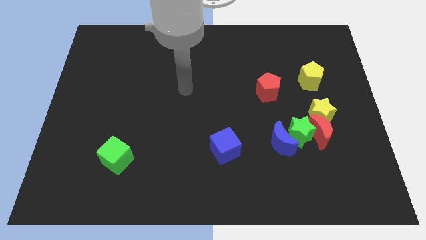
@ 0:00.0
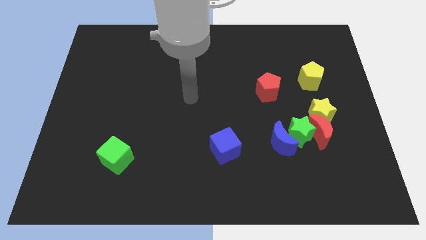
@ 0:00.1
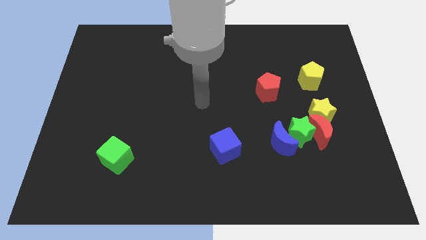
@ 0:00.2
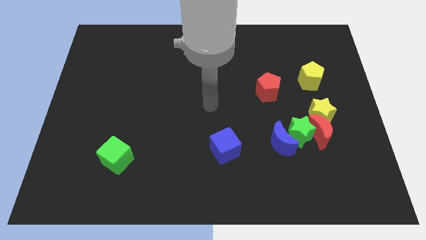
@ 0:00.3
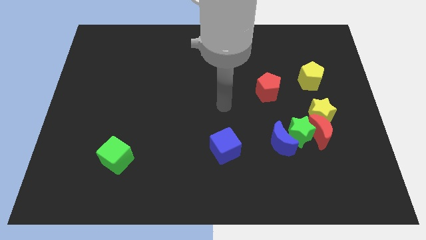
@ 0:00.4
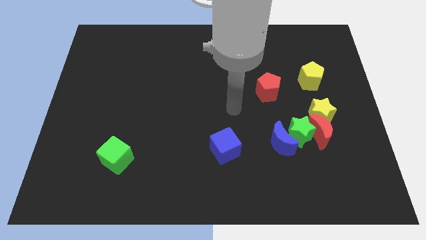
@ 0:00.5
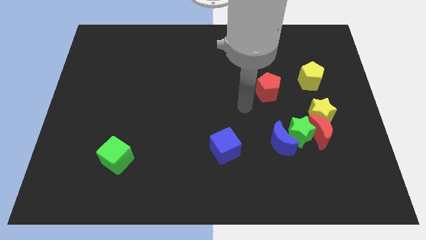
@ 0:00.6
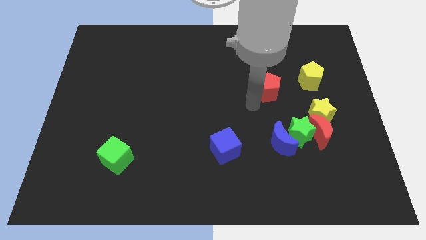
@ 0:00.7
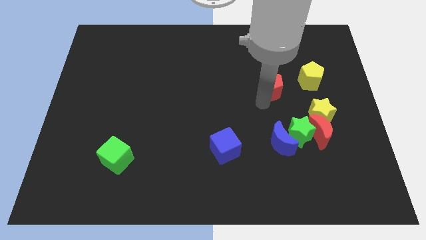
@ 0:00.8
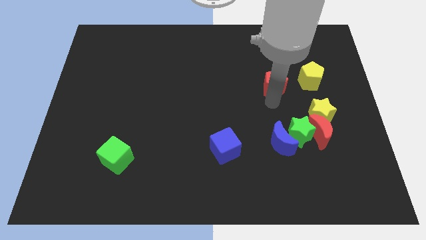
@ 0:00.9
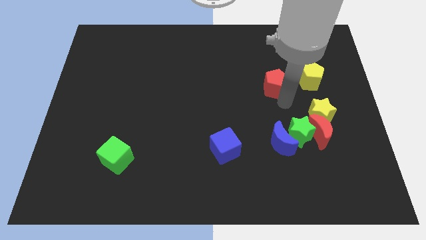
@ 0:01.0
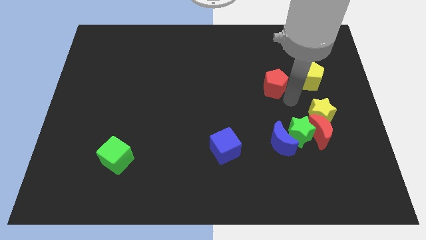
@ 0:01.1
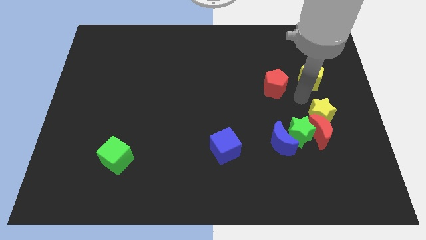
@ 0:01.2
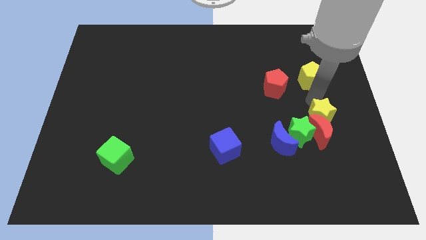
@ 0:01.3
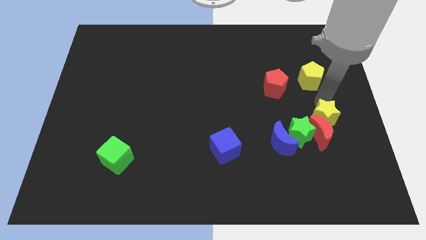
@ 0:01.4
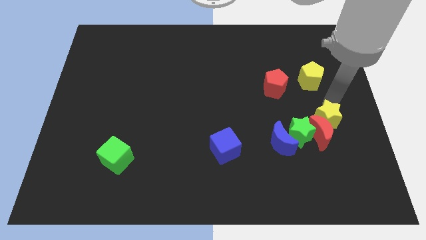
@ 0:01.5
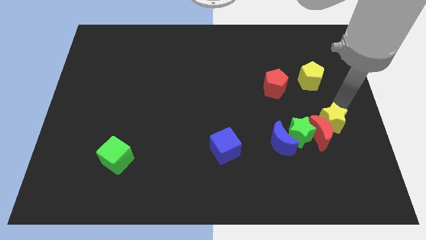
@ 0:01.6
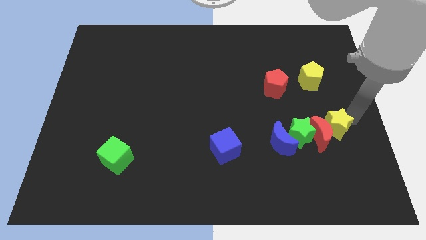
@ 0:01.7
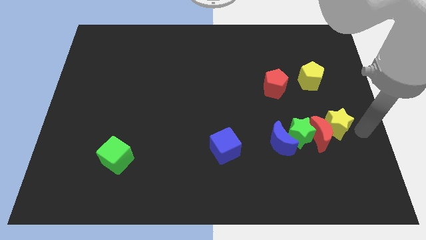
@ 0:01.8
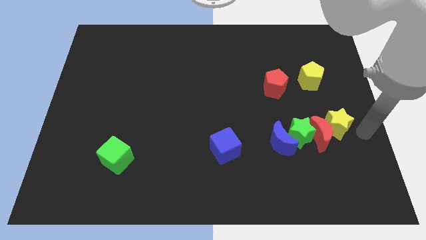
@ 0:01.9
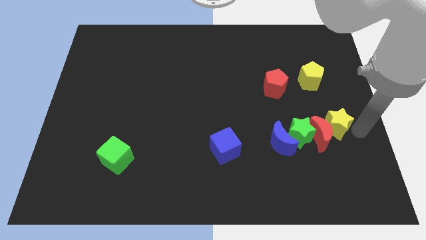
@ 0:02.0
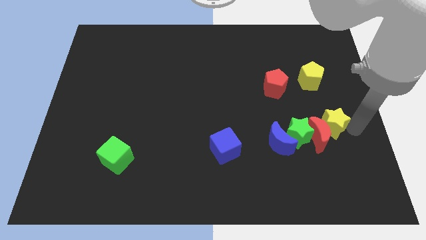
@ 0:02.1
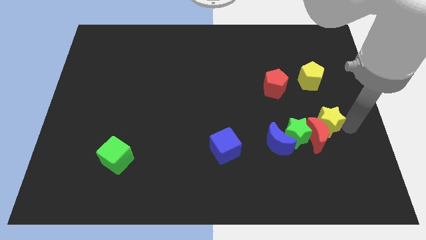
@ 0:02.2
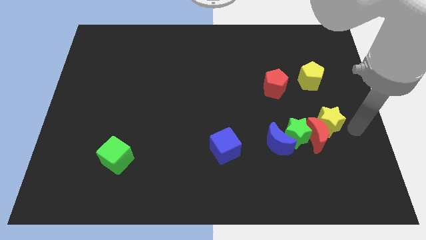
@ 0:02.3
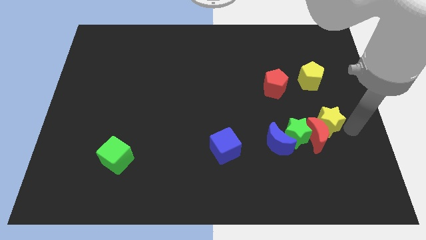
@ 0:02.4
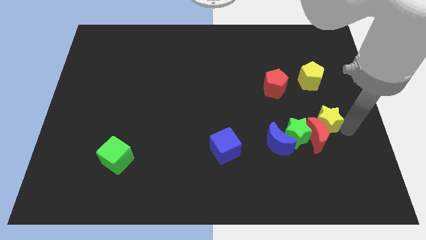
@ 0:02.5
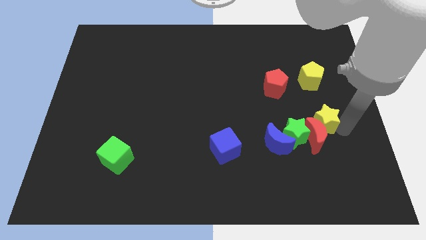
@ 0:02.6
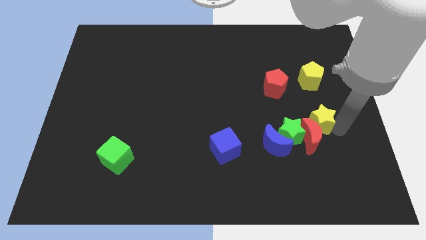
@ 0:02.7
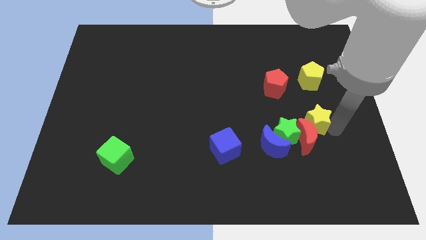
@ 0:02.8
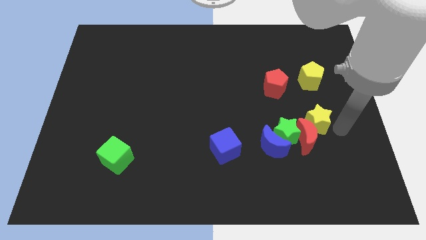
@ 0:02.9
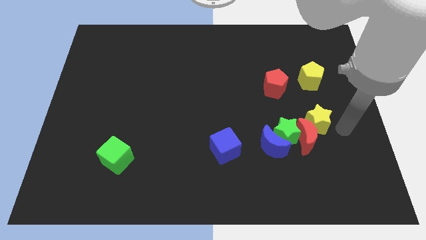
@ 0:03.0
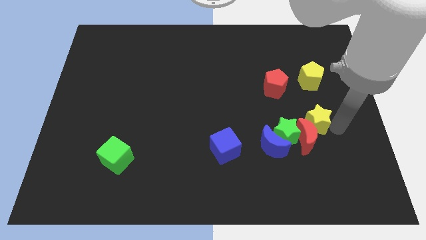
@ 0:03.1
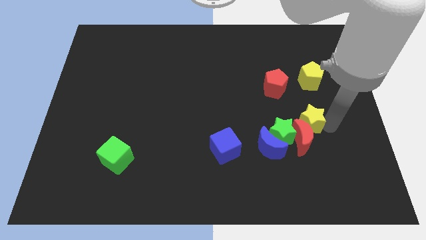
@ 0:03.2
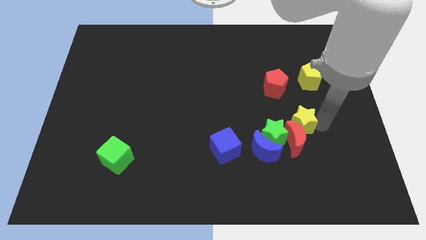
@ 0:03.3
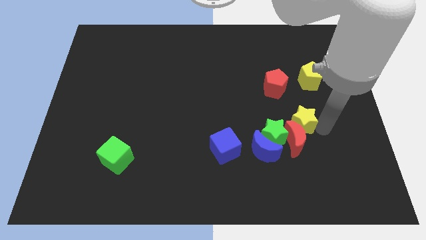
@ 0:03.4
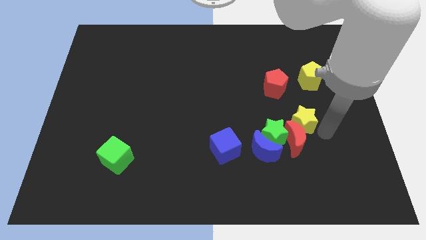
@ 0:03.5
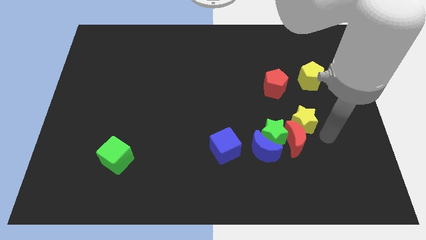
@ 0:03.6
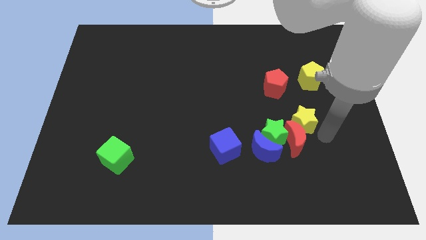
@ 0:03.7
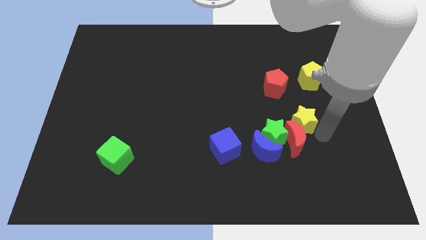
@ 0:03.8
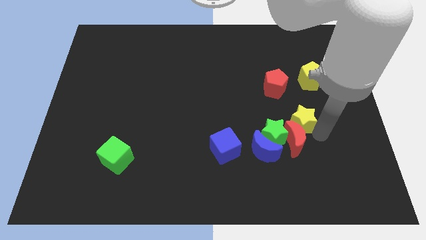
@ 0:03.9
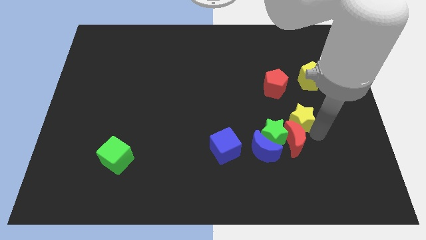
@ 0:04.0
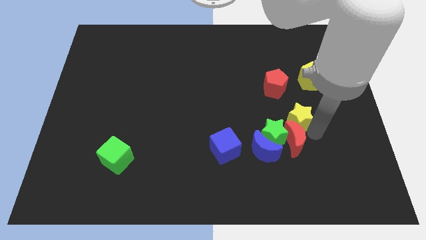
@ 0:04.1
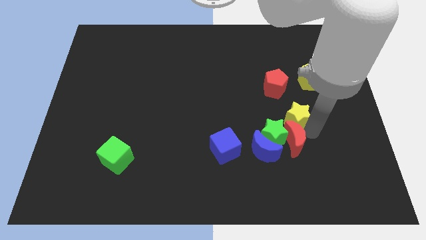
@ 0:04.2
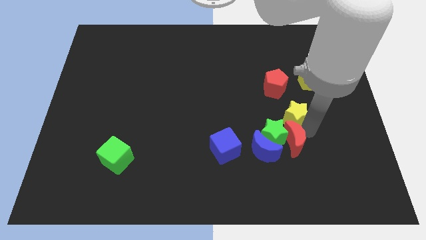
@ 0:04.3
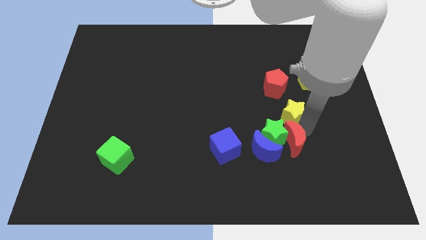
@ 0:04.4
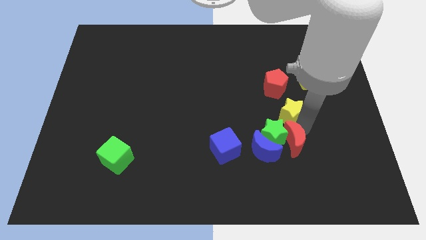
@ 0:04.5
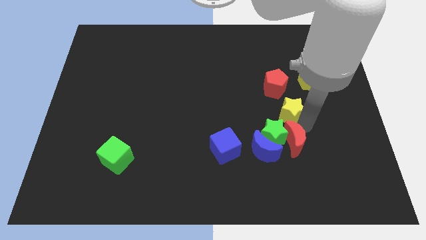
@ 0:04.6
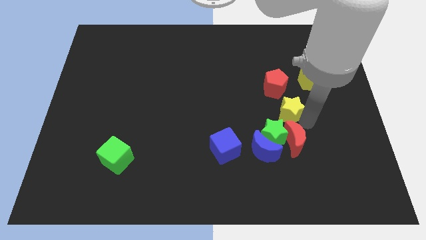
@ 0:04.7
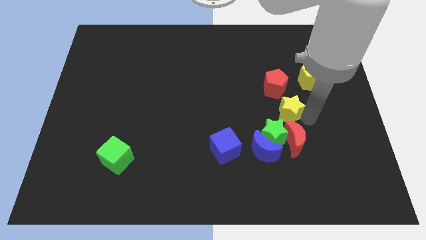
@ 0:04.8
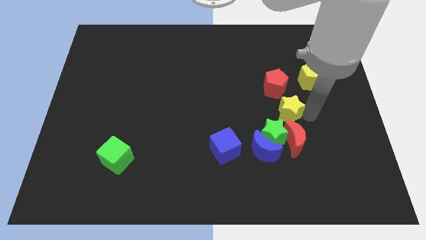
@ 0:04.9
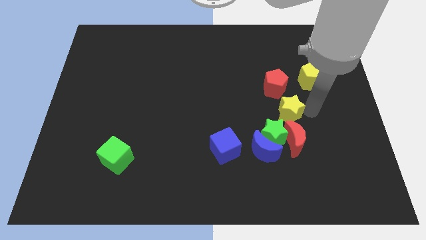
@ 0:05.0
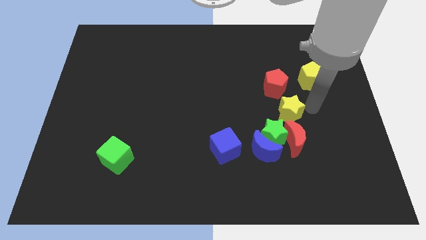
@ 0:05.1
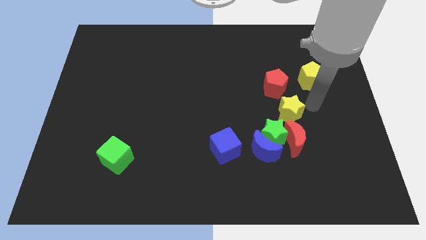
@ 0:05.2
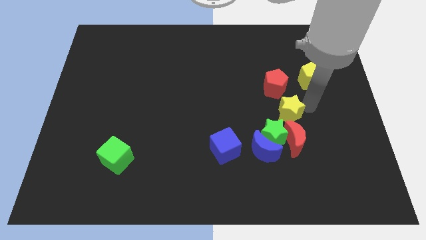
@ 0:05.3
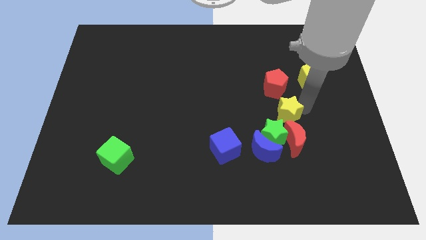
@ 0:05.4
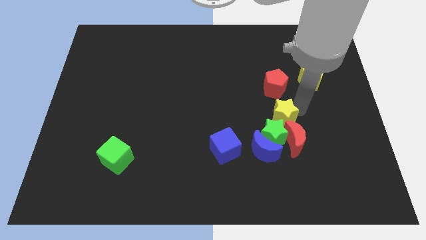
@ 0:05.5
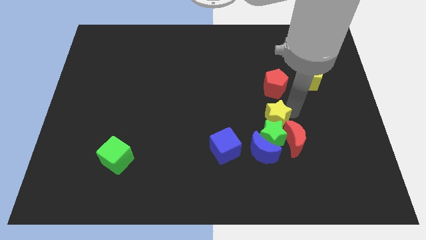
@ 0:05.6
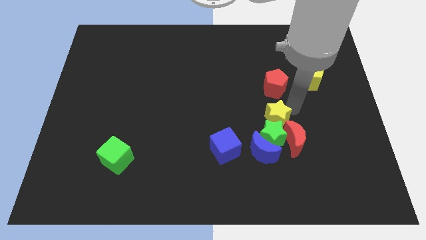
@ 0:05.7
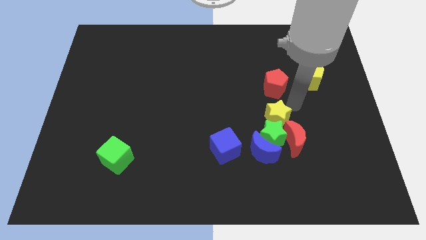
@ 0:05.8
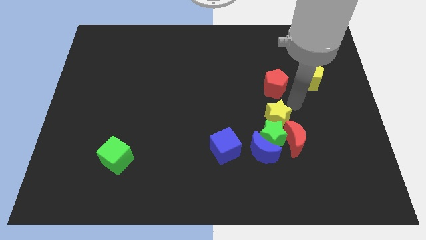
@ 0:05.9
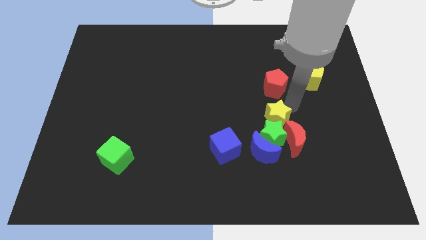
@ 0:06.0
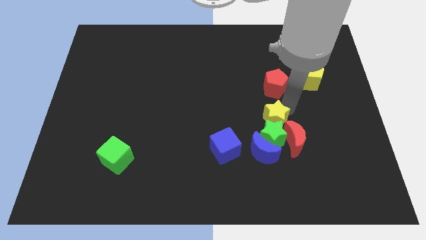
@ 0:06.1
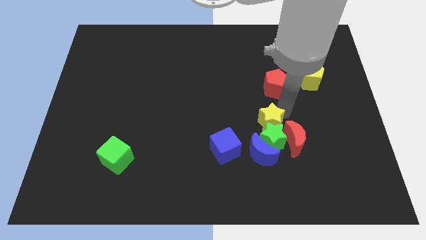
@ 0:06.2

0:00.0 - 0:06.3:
push the yellow star down and then left a bit

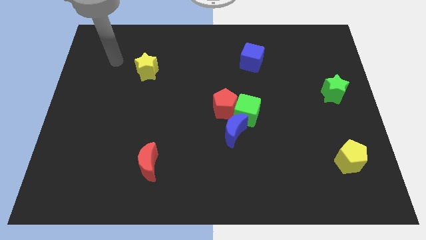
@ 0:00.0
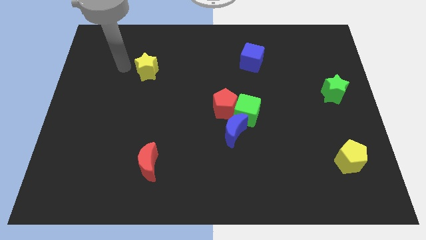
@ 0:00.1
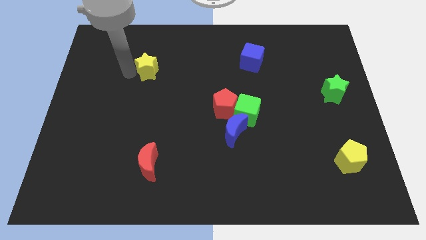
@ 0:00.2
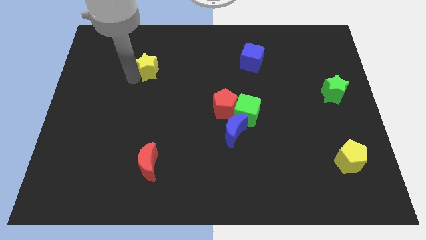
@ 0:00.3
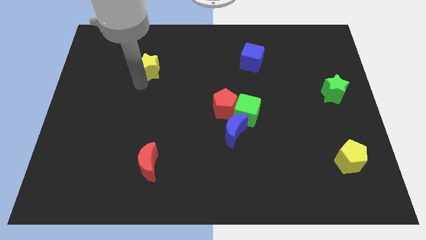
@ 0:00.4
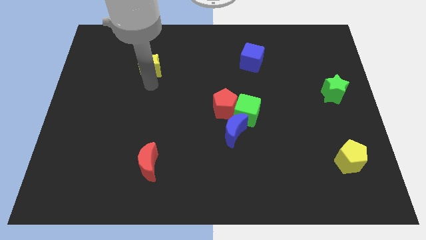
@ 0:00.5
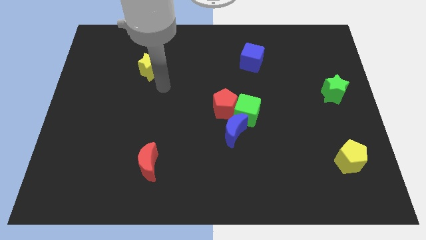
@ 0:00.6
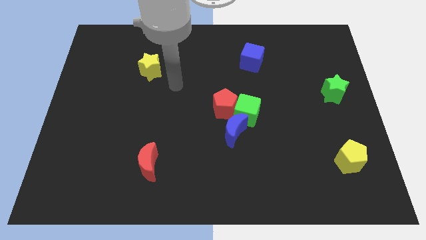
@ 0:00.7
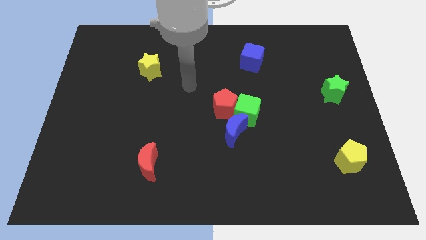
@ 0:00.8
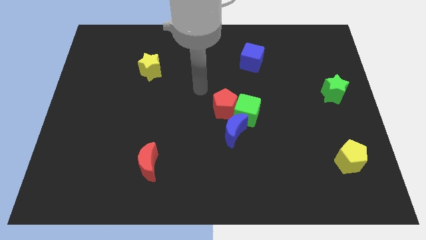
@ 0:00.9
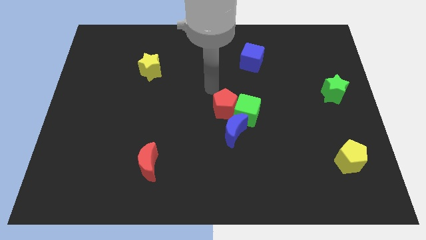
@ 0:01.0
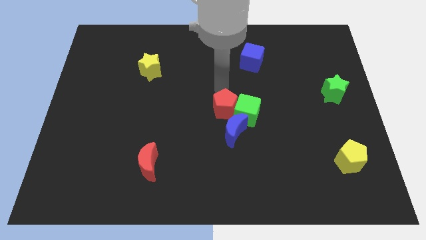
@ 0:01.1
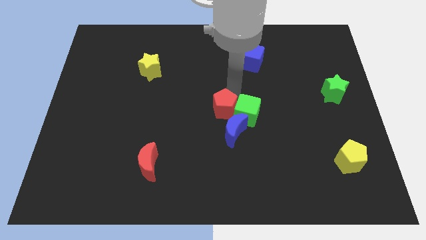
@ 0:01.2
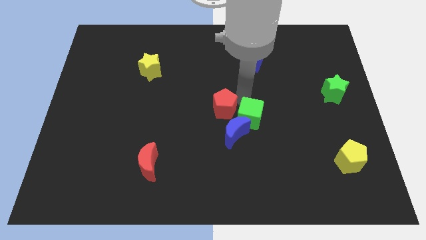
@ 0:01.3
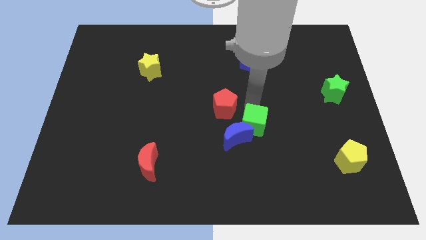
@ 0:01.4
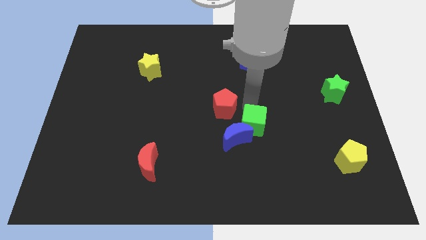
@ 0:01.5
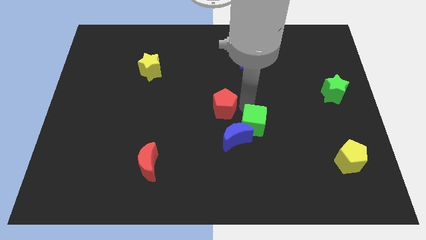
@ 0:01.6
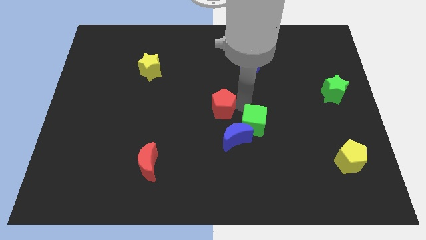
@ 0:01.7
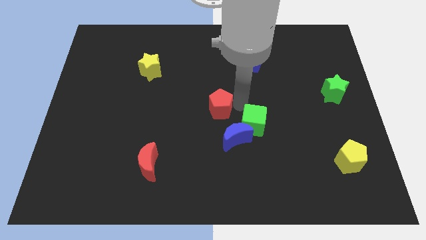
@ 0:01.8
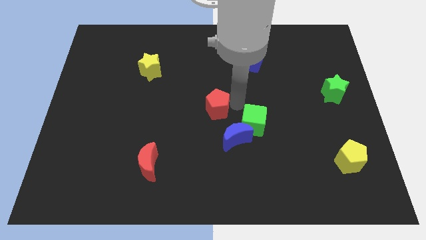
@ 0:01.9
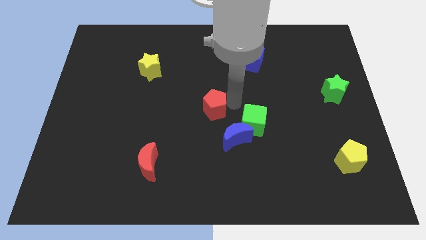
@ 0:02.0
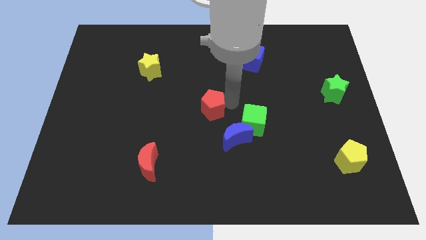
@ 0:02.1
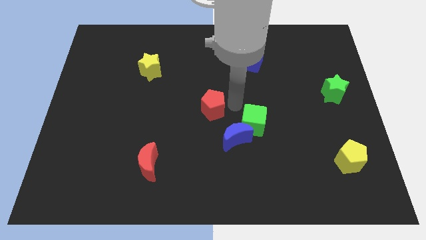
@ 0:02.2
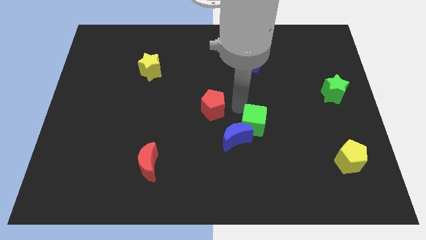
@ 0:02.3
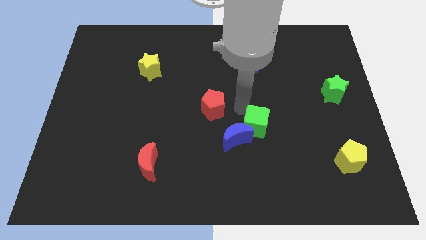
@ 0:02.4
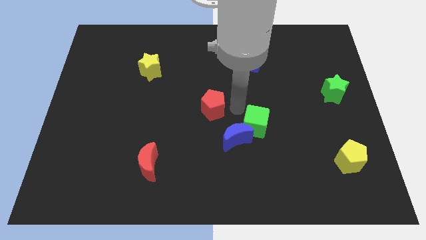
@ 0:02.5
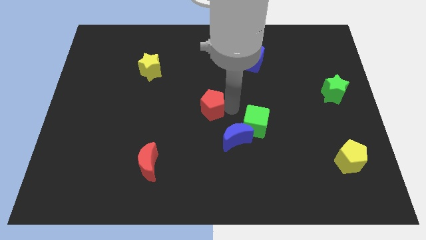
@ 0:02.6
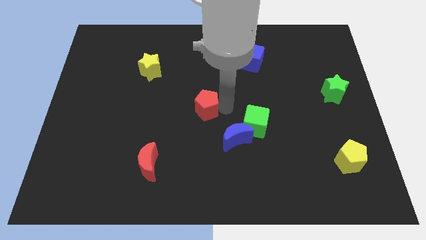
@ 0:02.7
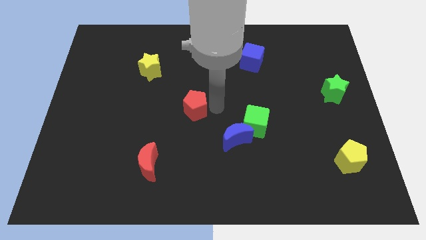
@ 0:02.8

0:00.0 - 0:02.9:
slightly slide the red pentagon to the left
